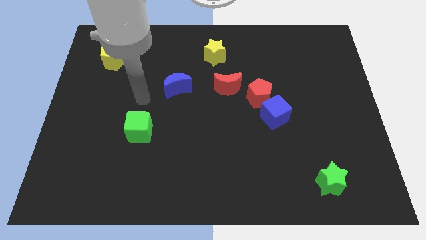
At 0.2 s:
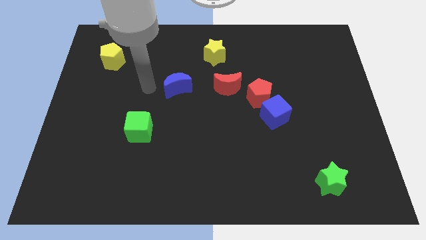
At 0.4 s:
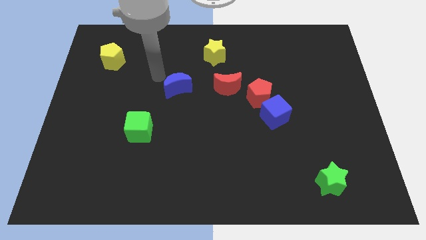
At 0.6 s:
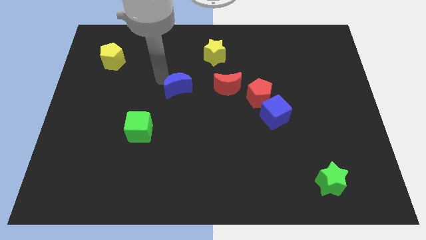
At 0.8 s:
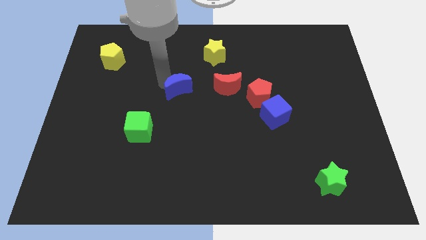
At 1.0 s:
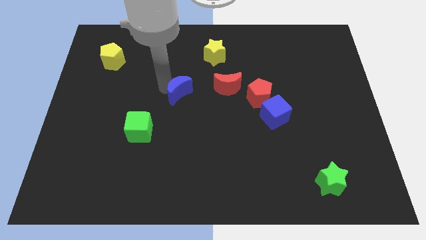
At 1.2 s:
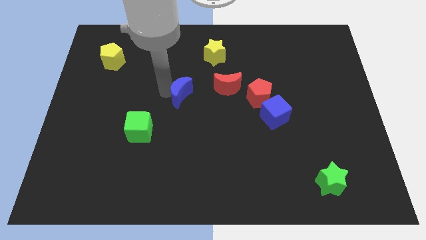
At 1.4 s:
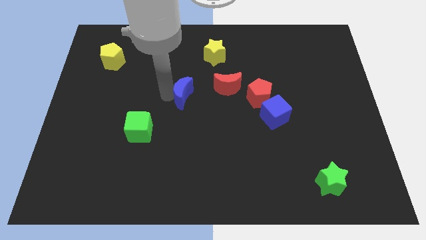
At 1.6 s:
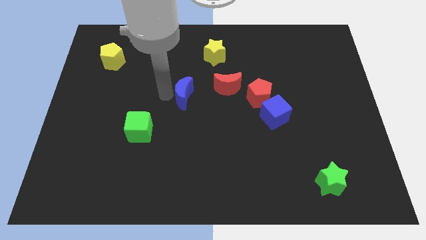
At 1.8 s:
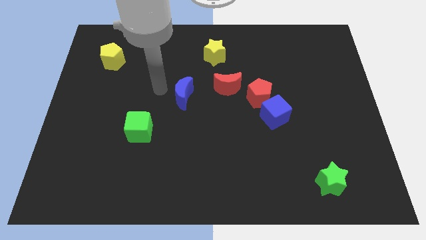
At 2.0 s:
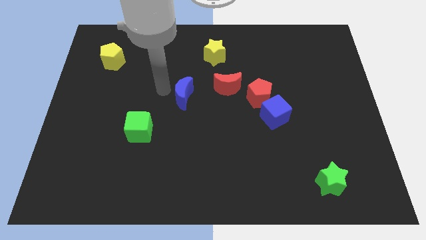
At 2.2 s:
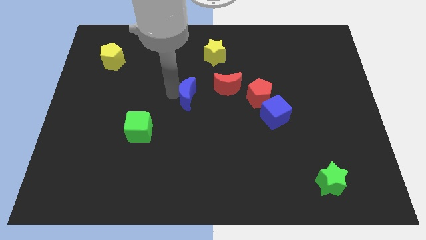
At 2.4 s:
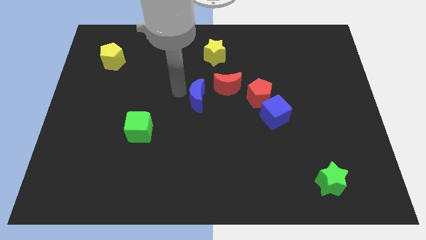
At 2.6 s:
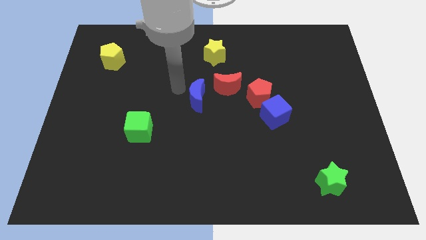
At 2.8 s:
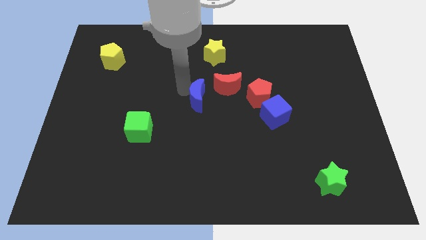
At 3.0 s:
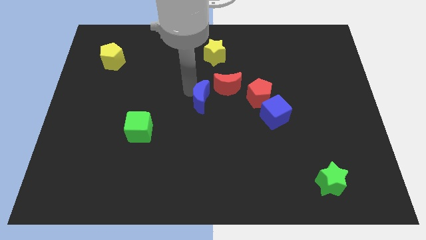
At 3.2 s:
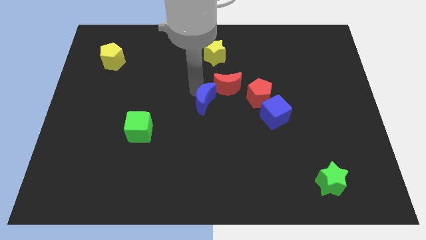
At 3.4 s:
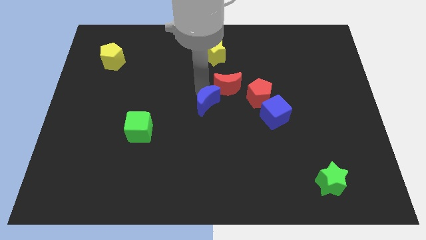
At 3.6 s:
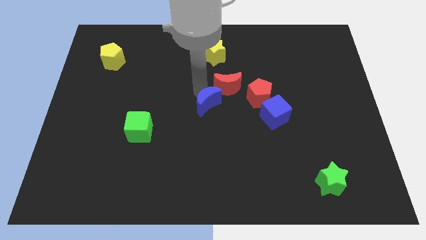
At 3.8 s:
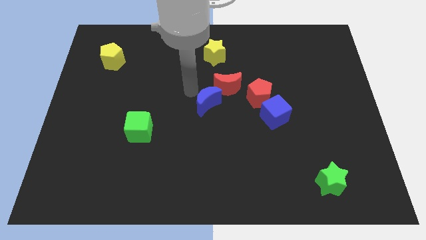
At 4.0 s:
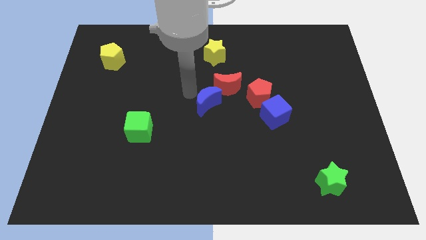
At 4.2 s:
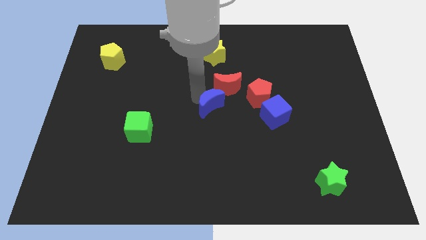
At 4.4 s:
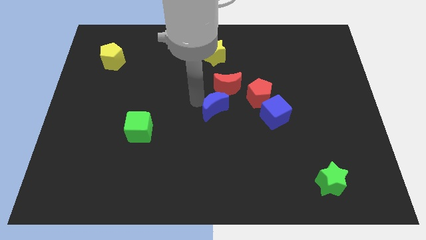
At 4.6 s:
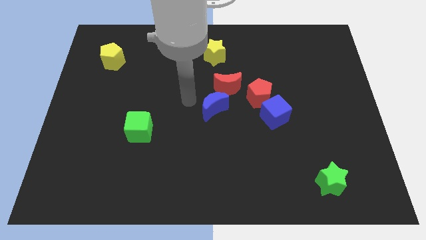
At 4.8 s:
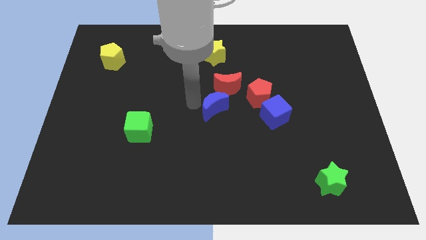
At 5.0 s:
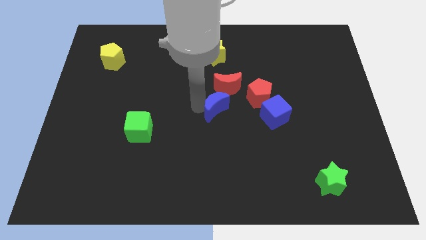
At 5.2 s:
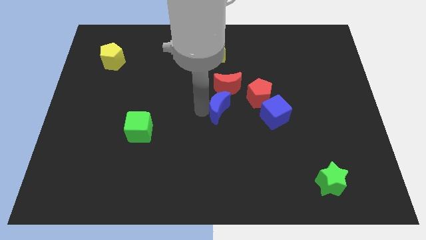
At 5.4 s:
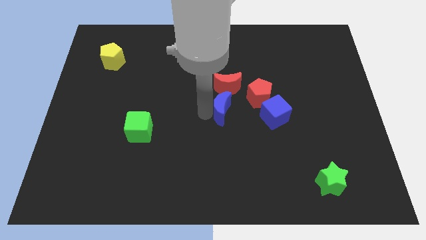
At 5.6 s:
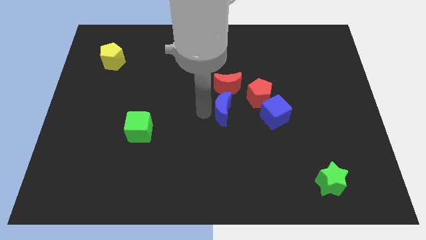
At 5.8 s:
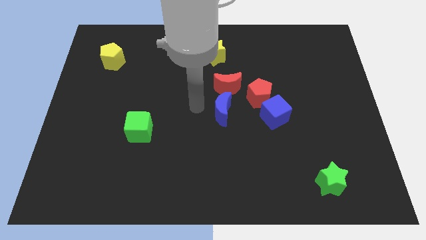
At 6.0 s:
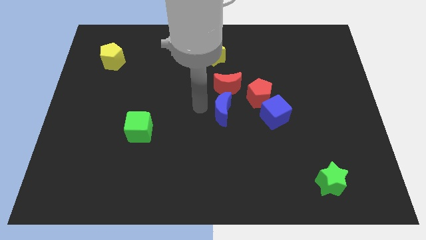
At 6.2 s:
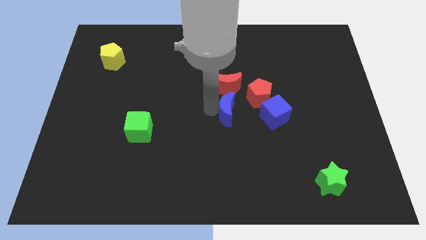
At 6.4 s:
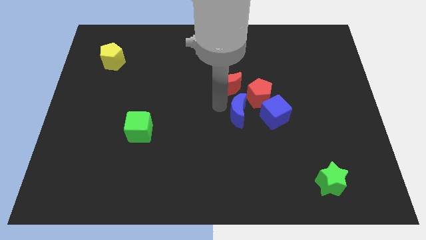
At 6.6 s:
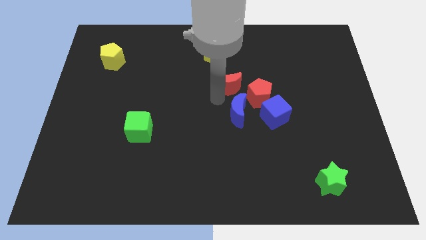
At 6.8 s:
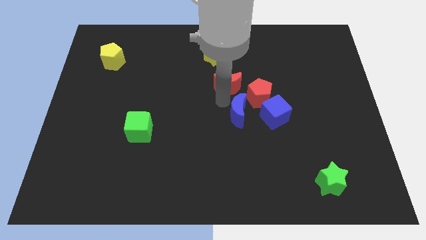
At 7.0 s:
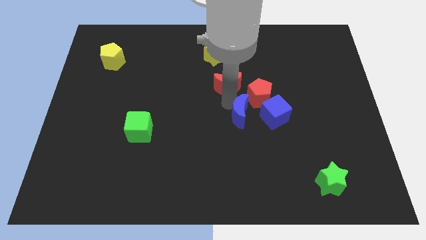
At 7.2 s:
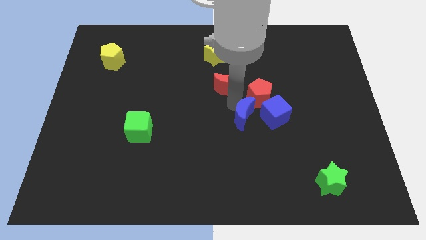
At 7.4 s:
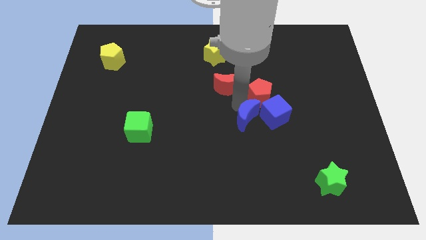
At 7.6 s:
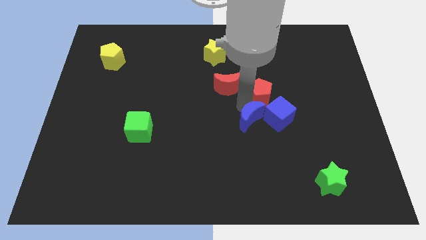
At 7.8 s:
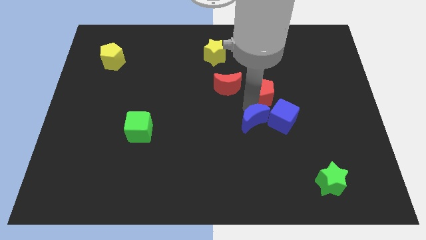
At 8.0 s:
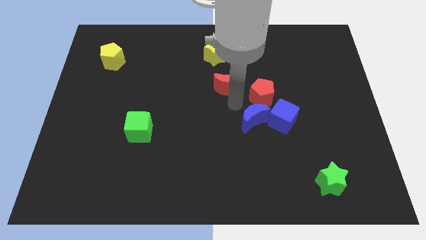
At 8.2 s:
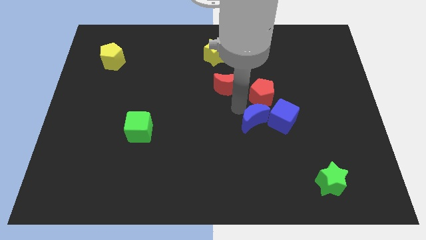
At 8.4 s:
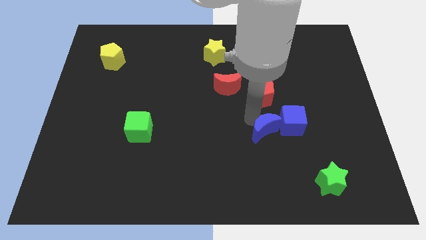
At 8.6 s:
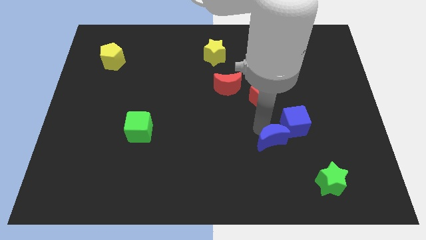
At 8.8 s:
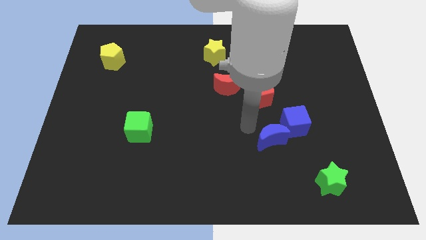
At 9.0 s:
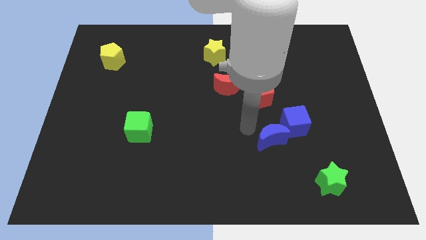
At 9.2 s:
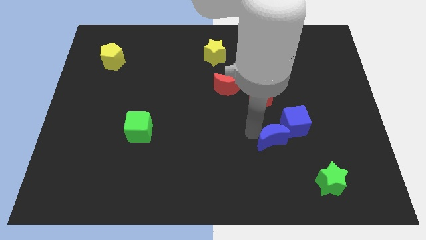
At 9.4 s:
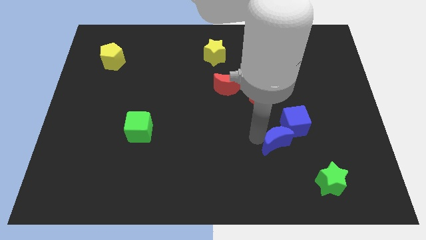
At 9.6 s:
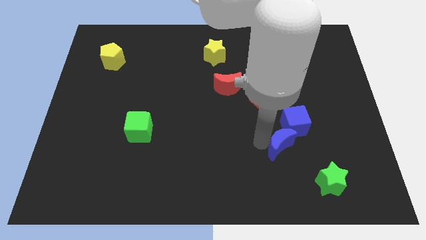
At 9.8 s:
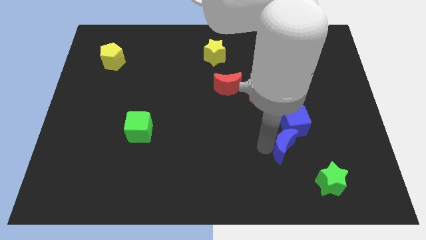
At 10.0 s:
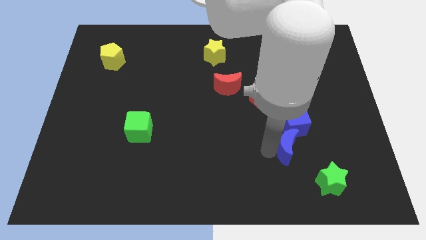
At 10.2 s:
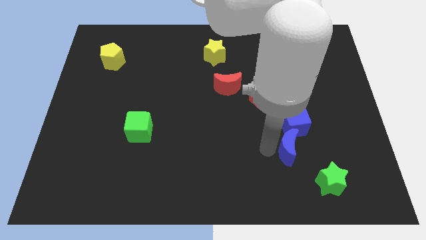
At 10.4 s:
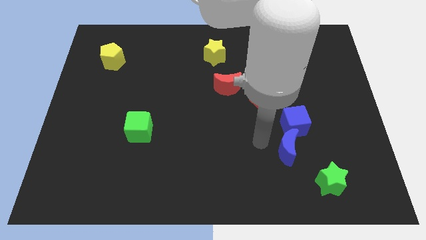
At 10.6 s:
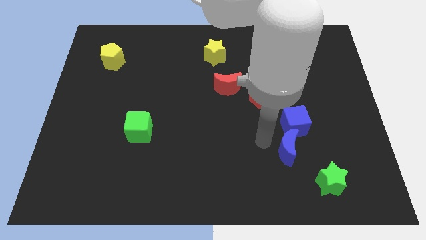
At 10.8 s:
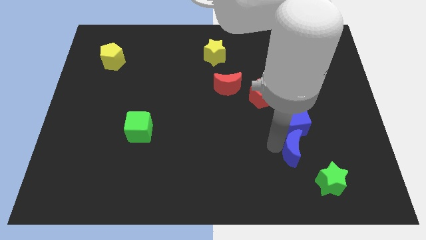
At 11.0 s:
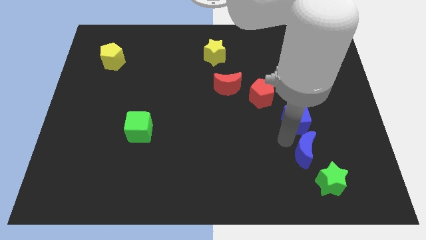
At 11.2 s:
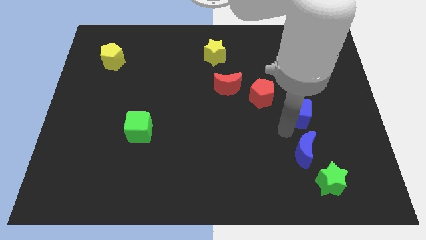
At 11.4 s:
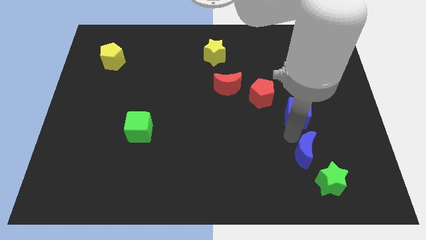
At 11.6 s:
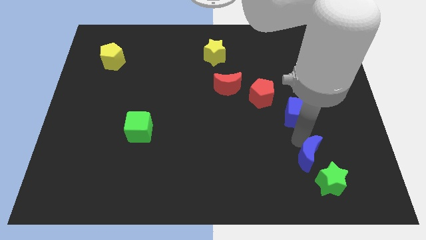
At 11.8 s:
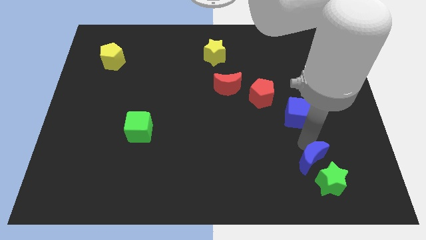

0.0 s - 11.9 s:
put the blue moon next to the green star

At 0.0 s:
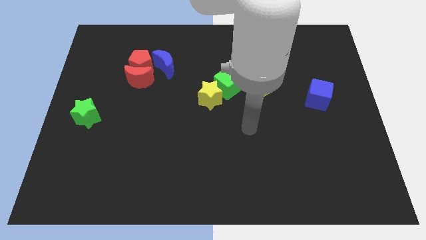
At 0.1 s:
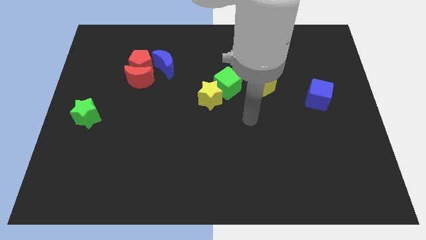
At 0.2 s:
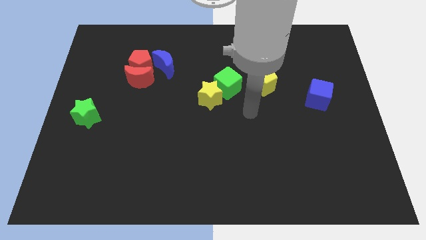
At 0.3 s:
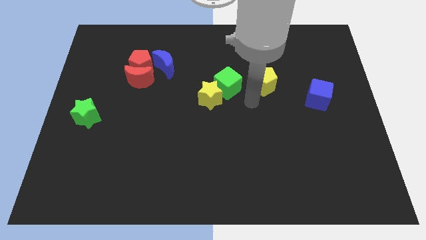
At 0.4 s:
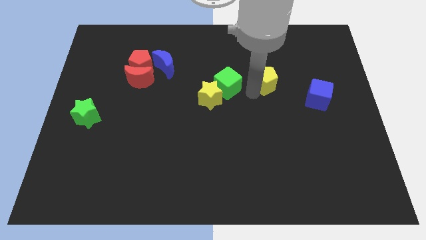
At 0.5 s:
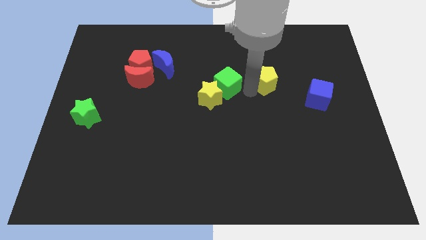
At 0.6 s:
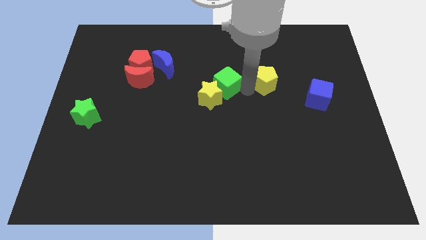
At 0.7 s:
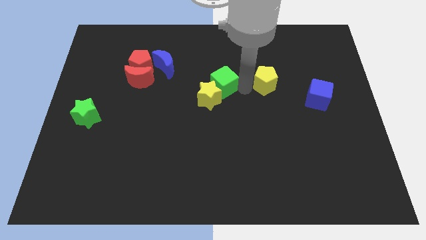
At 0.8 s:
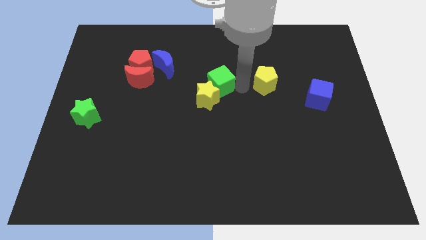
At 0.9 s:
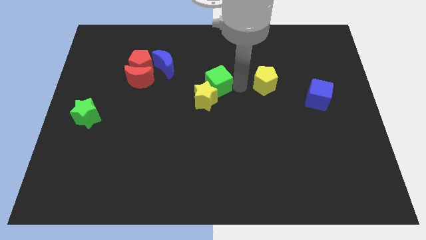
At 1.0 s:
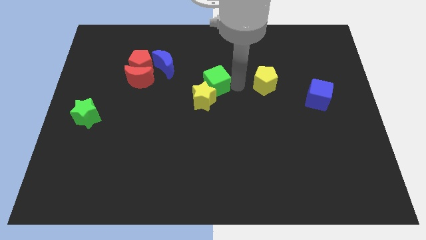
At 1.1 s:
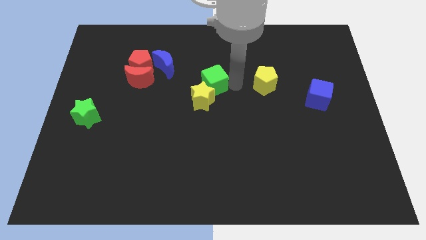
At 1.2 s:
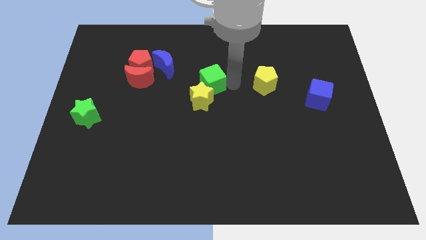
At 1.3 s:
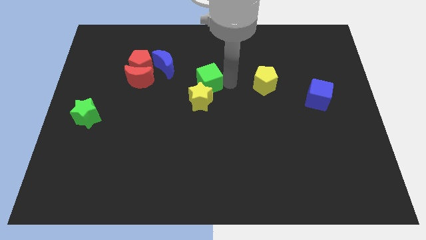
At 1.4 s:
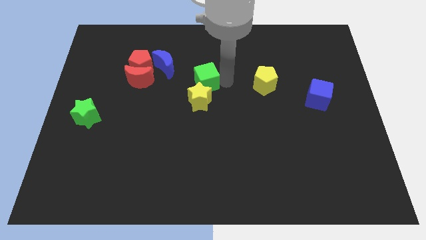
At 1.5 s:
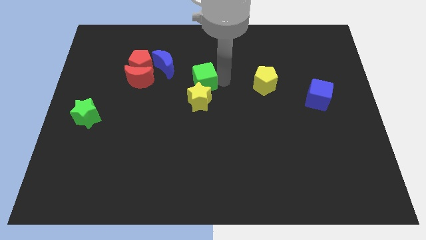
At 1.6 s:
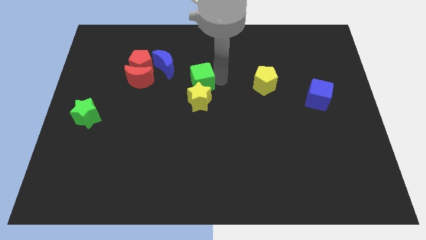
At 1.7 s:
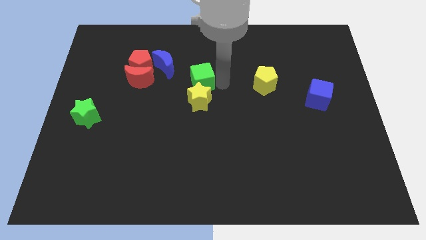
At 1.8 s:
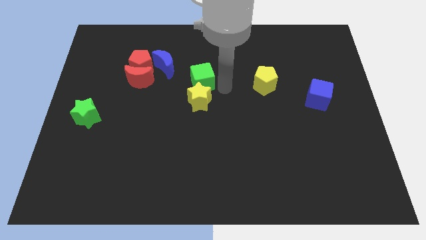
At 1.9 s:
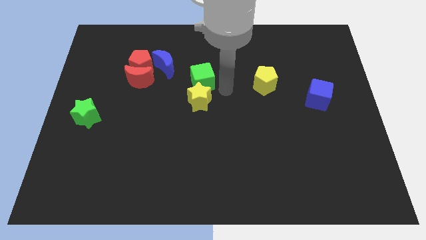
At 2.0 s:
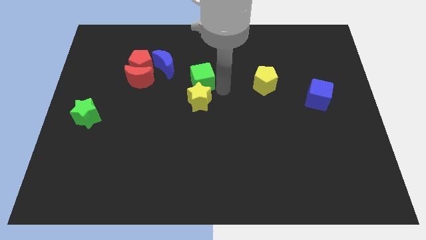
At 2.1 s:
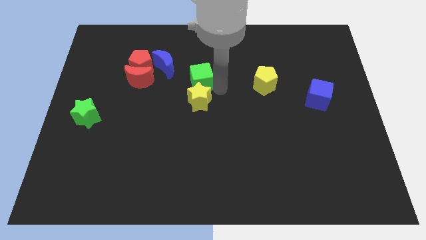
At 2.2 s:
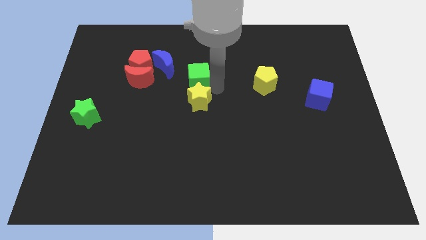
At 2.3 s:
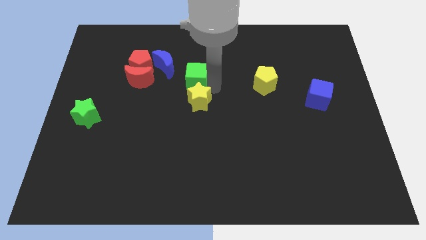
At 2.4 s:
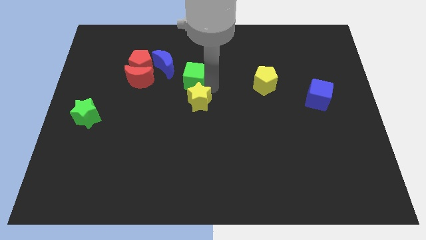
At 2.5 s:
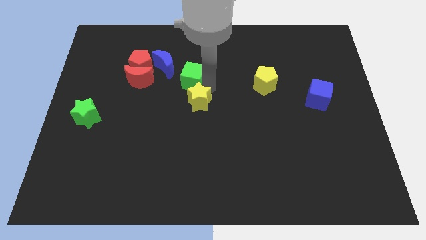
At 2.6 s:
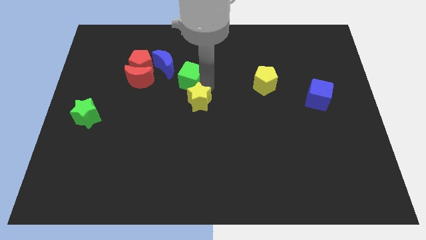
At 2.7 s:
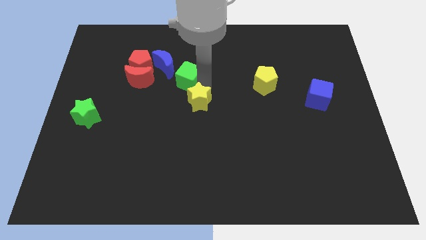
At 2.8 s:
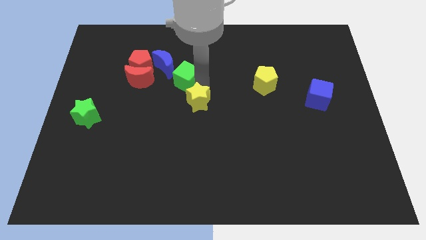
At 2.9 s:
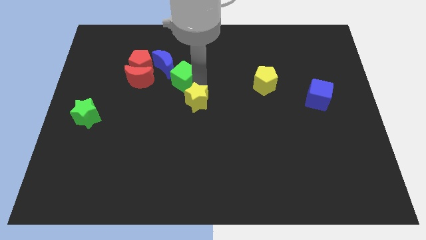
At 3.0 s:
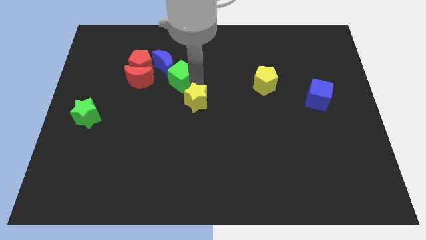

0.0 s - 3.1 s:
put the green cube towards the blue moon
